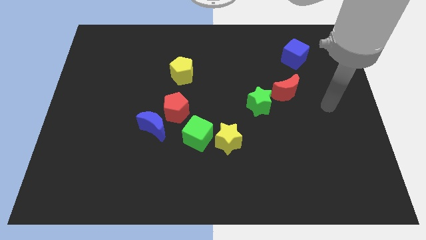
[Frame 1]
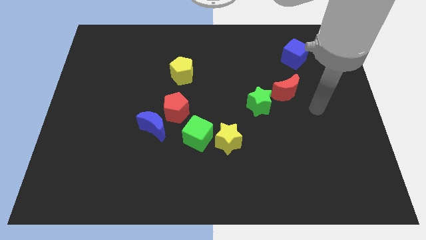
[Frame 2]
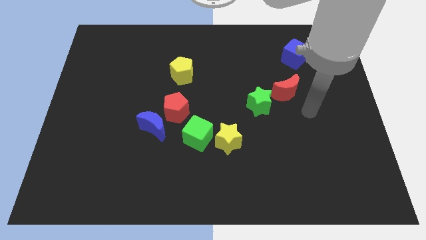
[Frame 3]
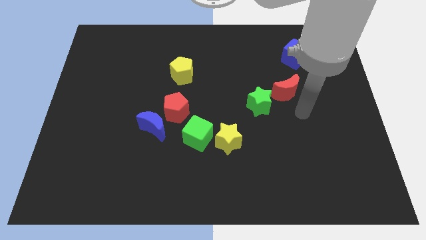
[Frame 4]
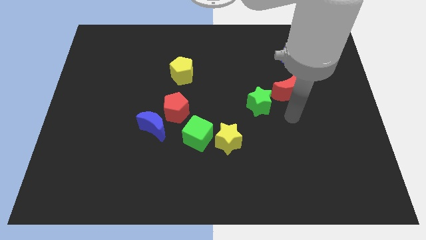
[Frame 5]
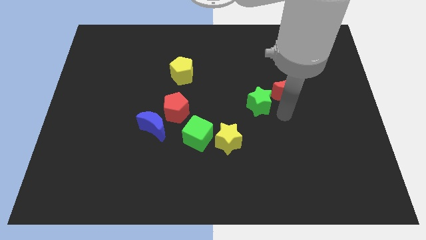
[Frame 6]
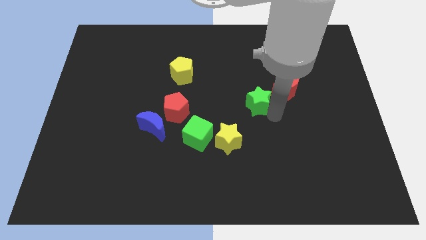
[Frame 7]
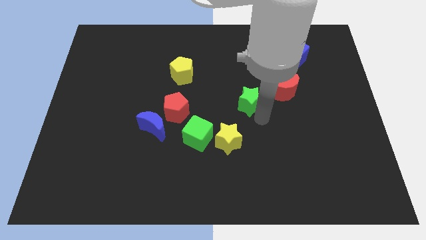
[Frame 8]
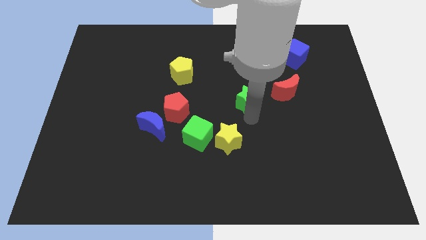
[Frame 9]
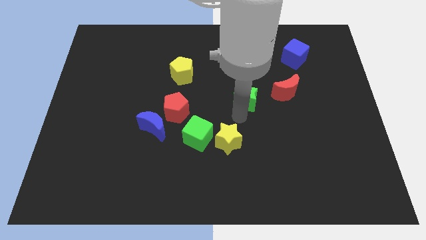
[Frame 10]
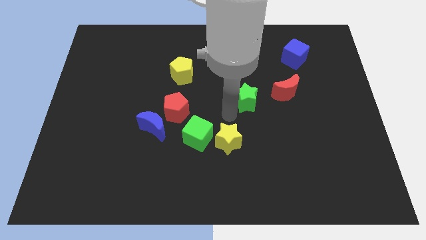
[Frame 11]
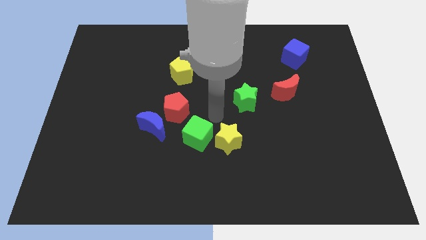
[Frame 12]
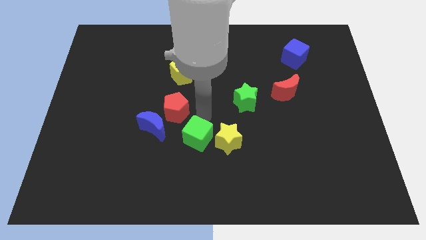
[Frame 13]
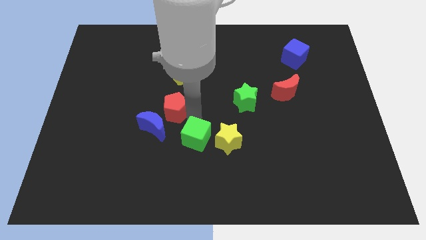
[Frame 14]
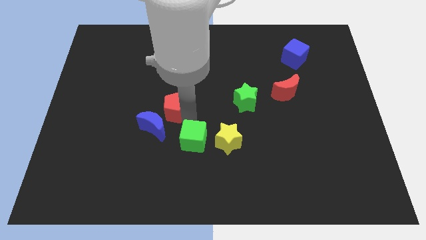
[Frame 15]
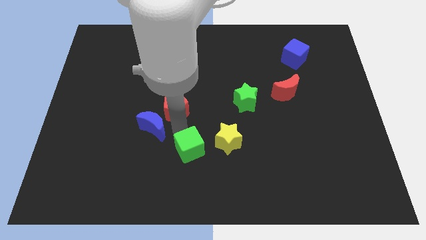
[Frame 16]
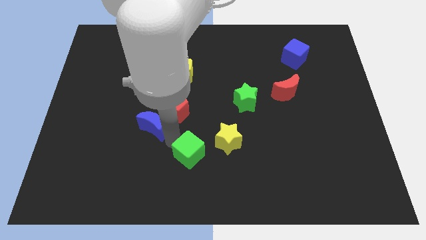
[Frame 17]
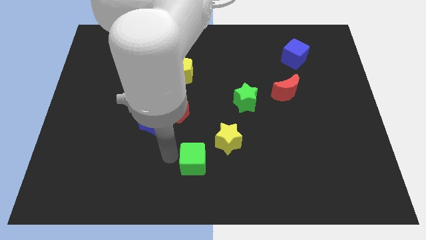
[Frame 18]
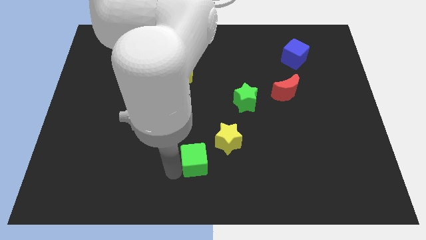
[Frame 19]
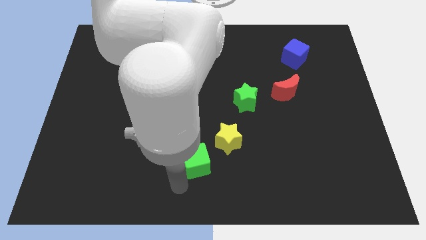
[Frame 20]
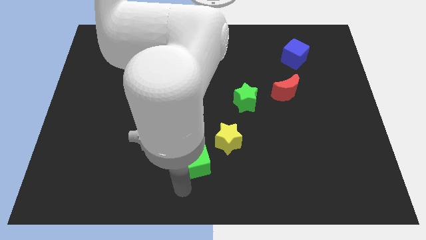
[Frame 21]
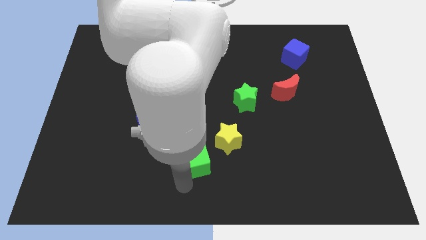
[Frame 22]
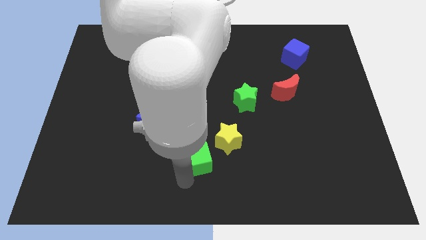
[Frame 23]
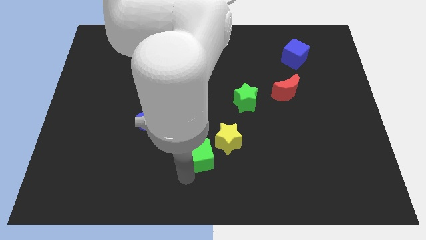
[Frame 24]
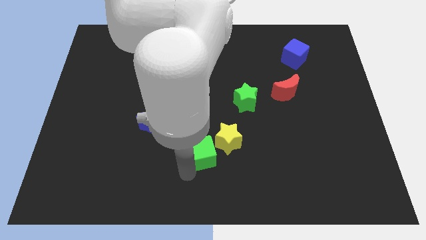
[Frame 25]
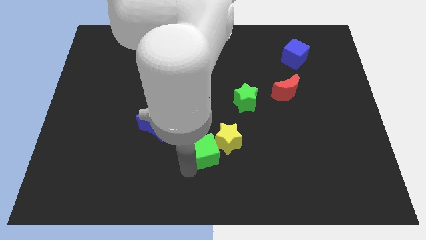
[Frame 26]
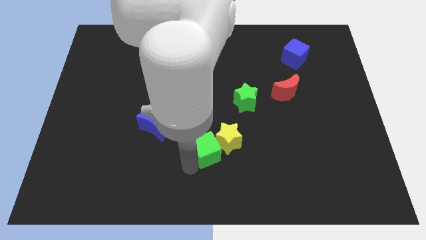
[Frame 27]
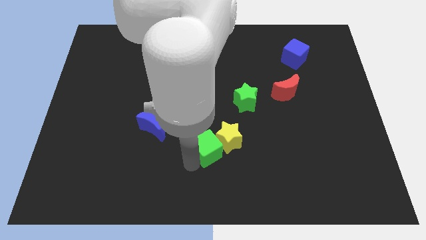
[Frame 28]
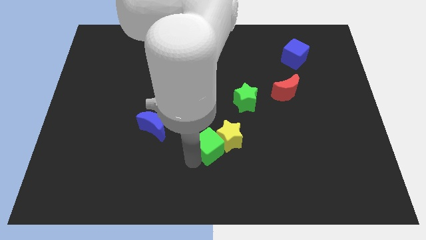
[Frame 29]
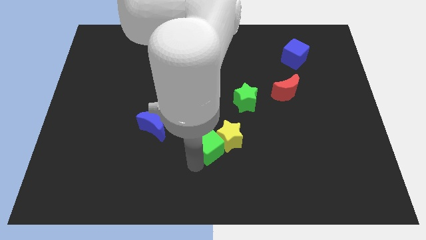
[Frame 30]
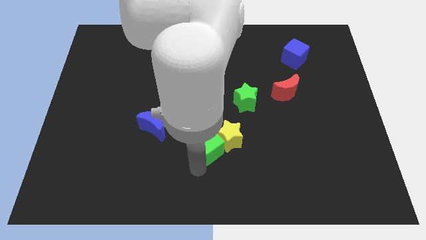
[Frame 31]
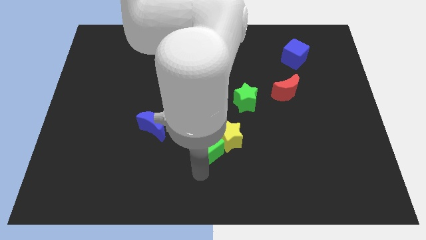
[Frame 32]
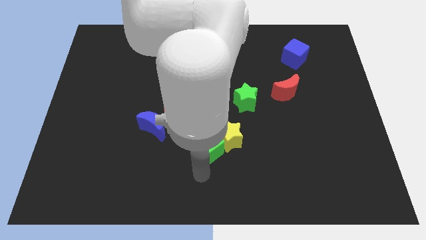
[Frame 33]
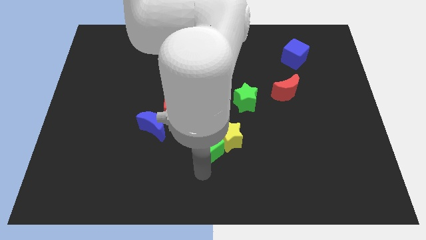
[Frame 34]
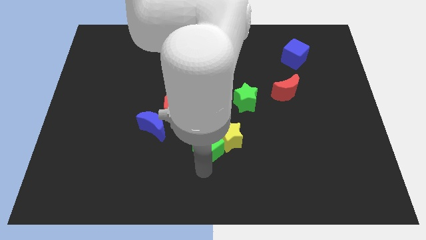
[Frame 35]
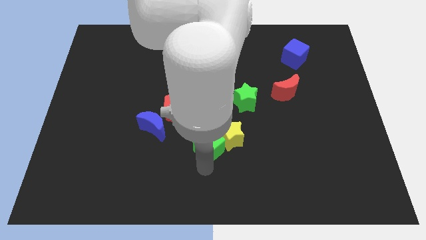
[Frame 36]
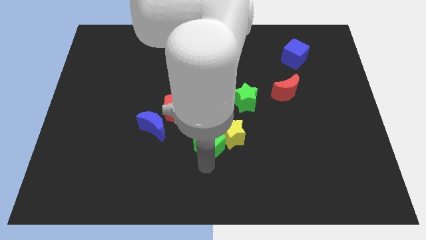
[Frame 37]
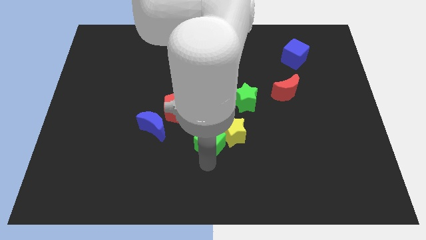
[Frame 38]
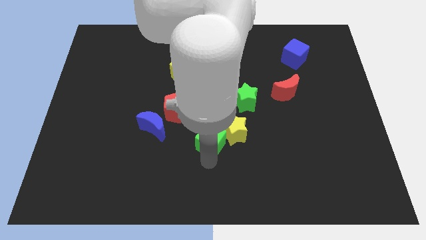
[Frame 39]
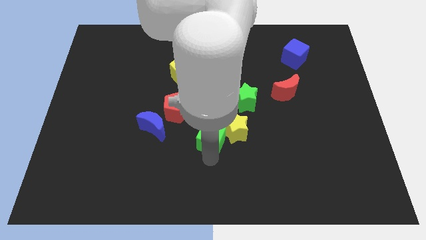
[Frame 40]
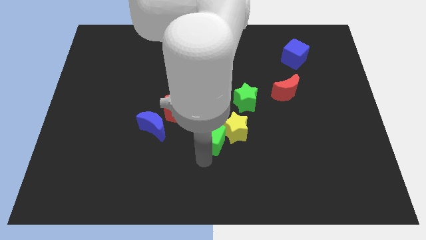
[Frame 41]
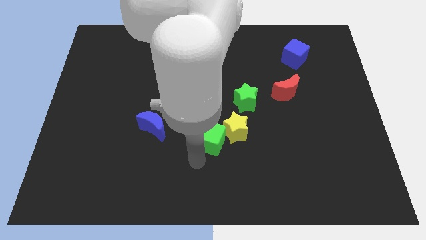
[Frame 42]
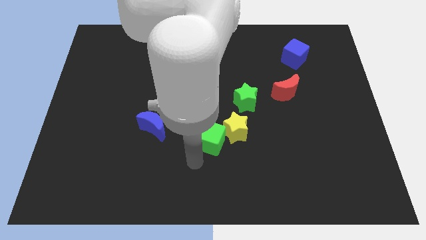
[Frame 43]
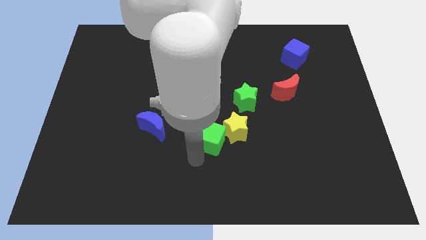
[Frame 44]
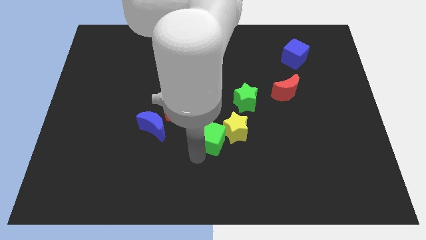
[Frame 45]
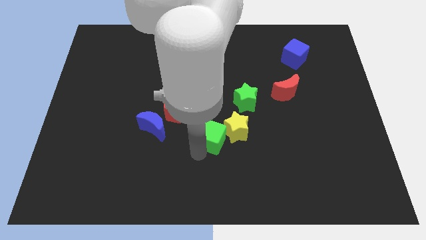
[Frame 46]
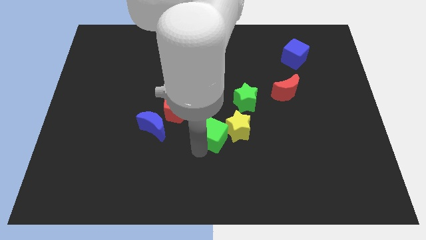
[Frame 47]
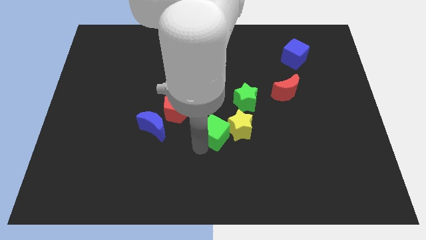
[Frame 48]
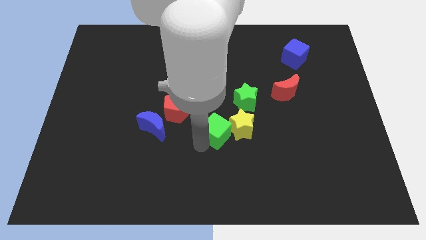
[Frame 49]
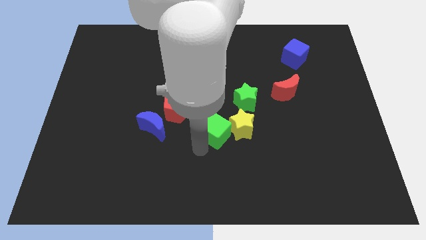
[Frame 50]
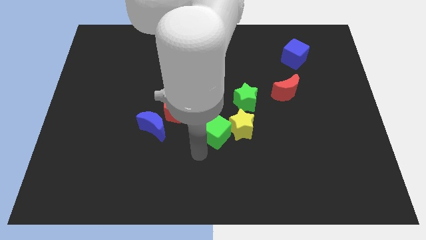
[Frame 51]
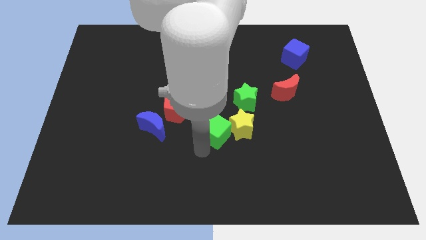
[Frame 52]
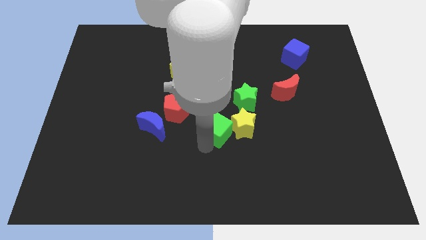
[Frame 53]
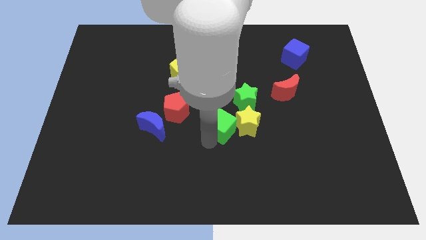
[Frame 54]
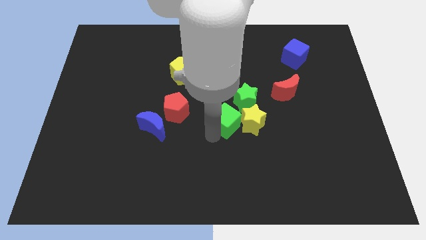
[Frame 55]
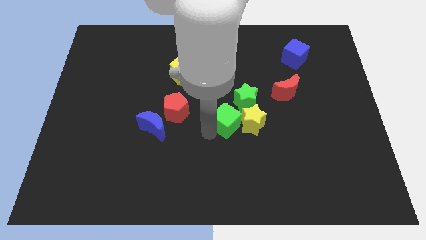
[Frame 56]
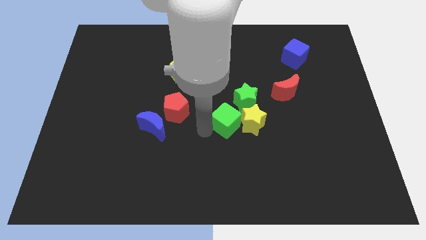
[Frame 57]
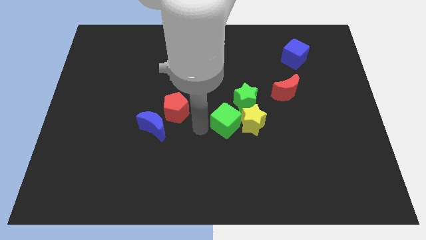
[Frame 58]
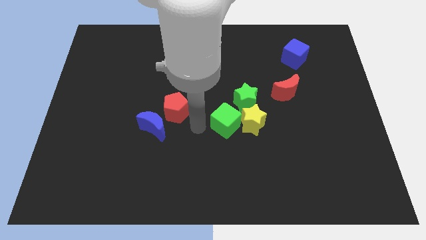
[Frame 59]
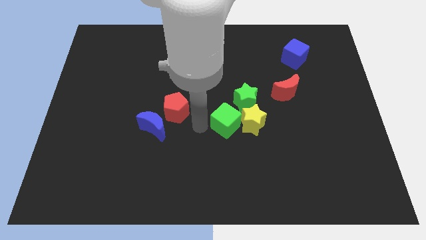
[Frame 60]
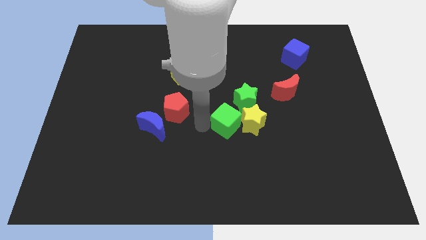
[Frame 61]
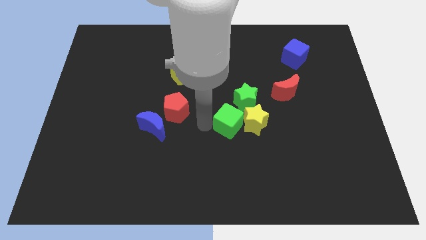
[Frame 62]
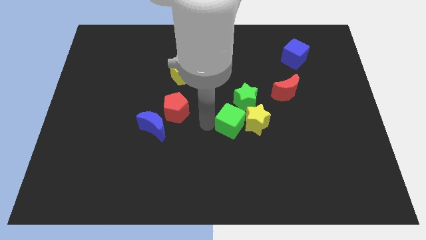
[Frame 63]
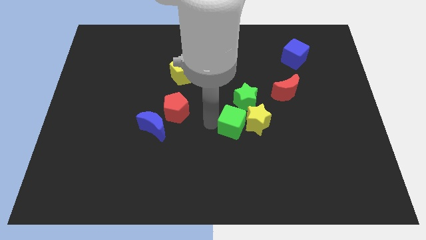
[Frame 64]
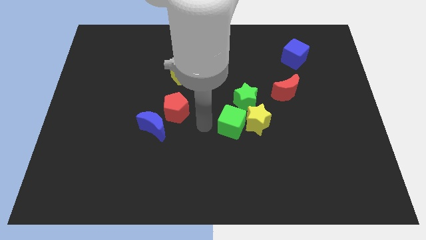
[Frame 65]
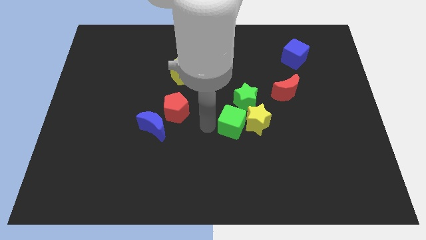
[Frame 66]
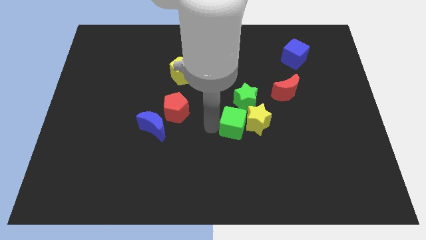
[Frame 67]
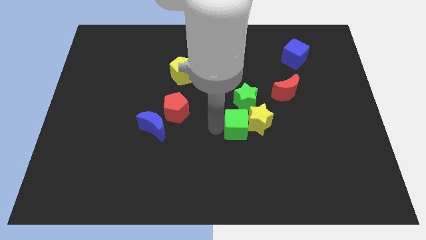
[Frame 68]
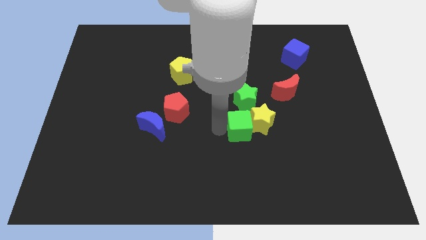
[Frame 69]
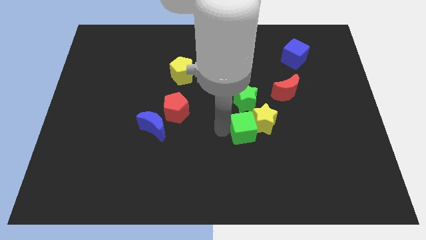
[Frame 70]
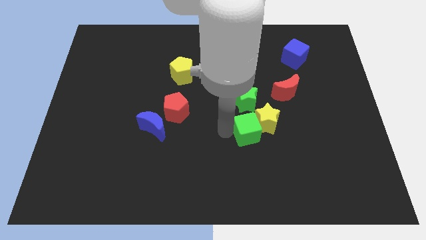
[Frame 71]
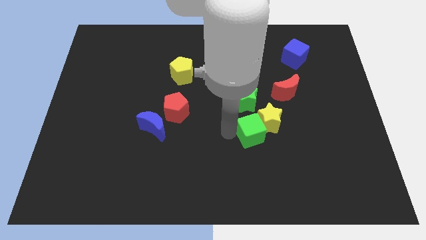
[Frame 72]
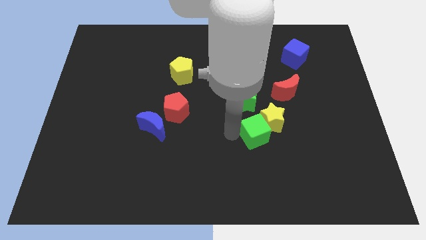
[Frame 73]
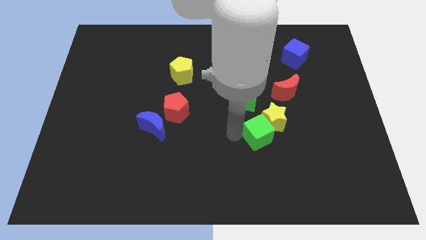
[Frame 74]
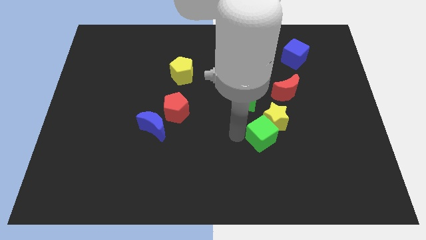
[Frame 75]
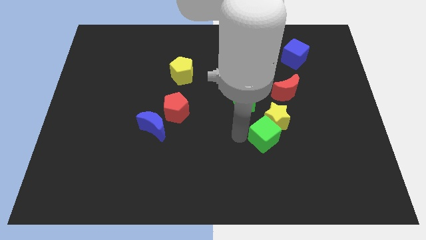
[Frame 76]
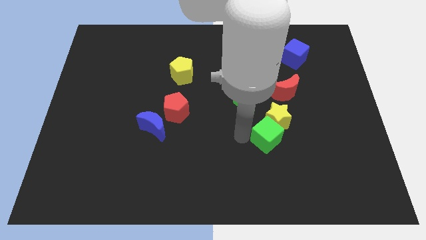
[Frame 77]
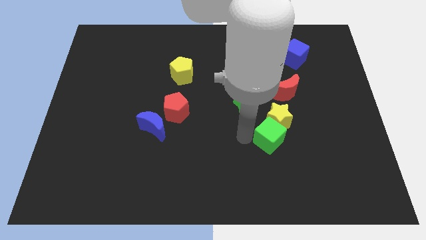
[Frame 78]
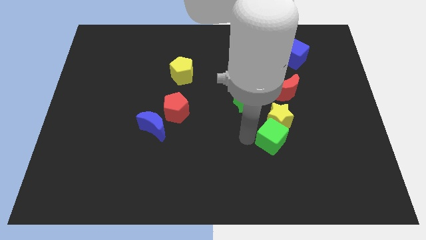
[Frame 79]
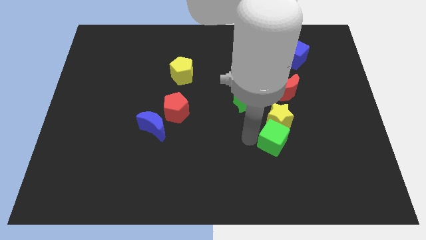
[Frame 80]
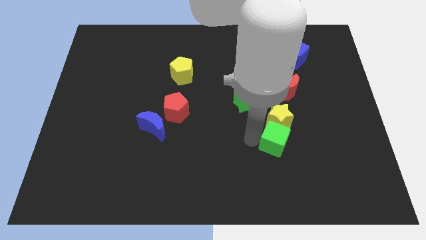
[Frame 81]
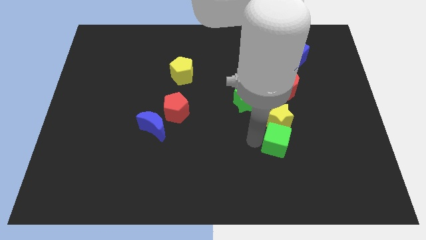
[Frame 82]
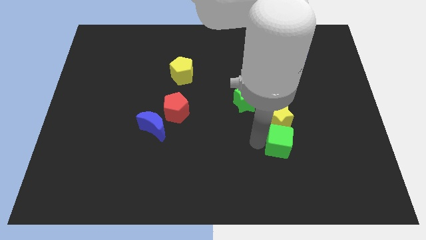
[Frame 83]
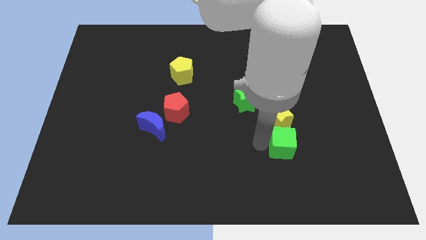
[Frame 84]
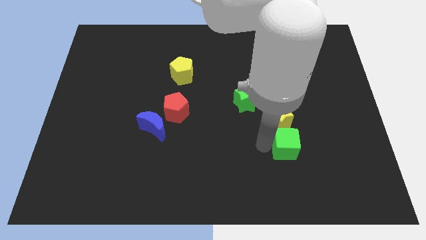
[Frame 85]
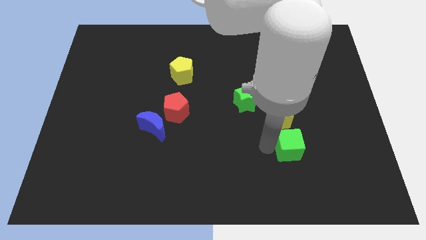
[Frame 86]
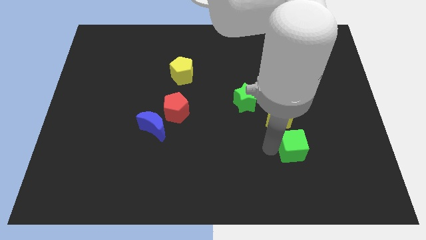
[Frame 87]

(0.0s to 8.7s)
move the green cube to the right
